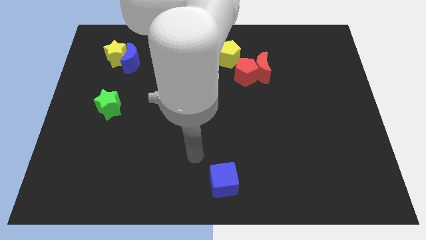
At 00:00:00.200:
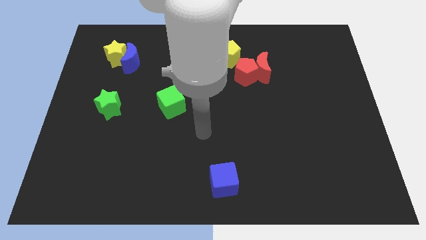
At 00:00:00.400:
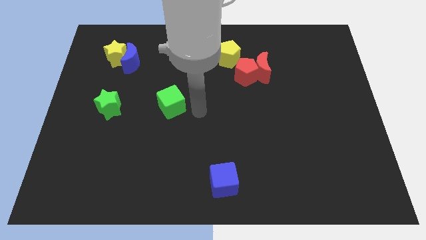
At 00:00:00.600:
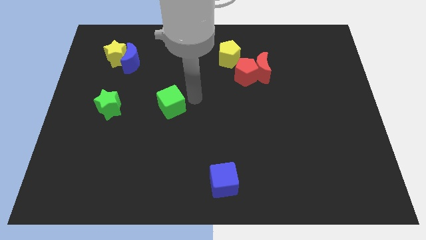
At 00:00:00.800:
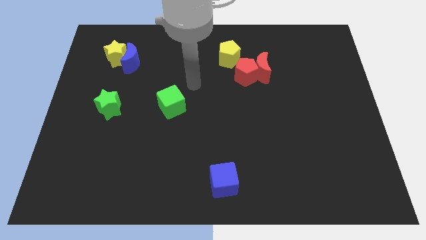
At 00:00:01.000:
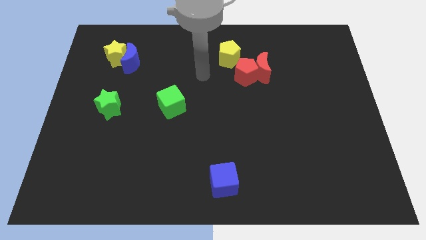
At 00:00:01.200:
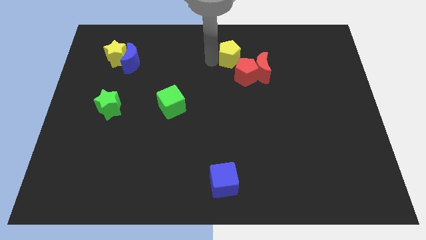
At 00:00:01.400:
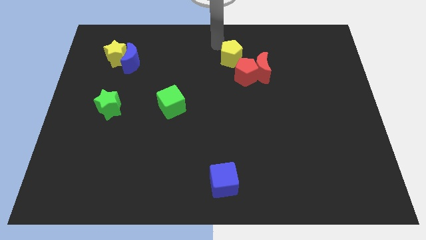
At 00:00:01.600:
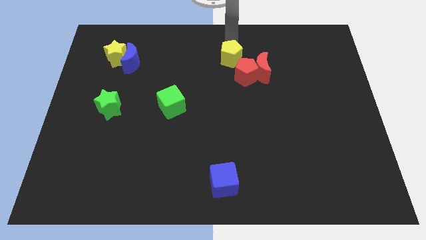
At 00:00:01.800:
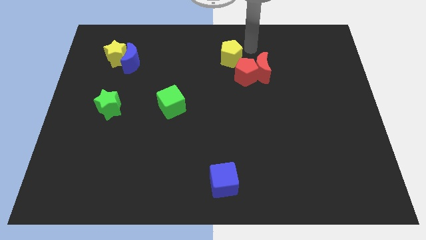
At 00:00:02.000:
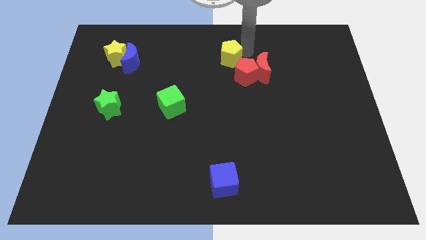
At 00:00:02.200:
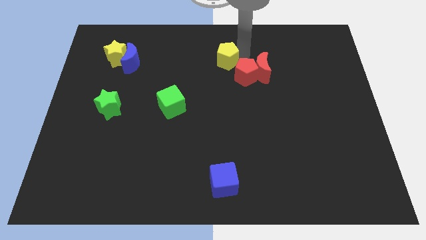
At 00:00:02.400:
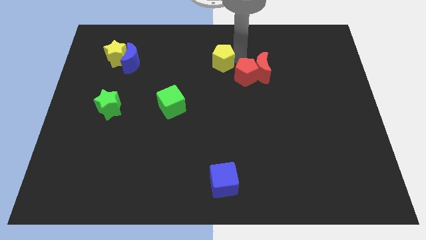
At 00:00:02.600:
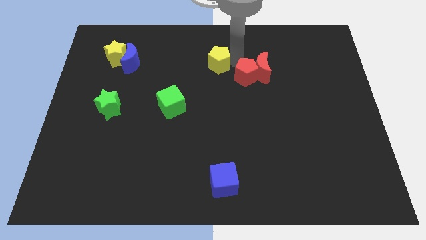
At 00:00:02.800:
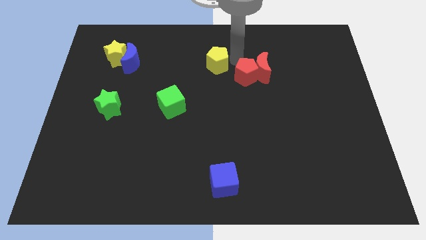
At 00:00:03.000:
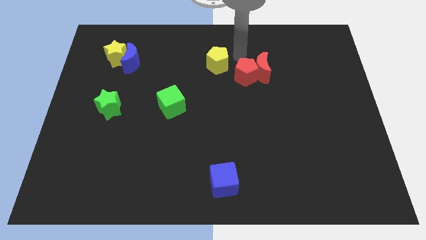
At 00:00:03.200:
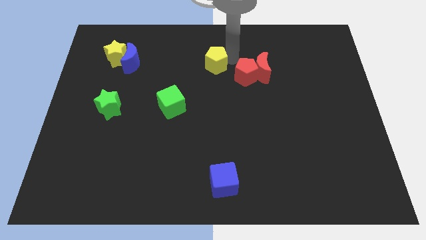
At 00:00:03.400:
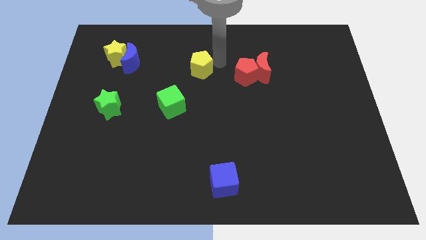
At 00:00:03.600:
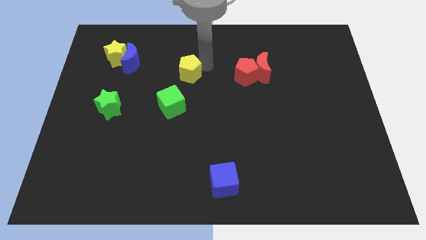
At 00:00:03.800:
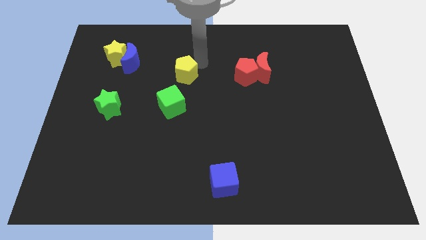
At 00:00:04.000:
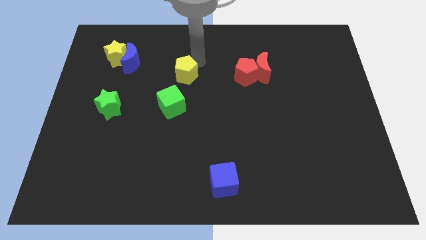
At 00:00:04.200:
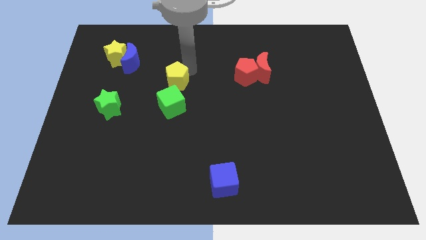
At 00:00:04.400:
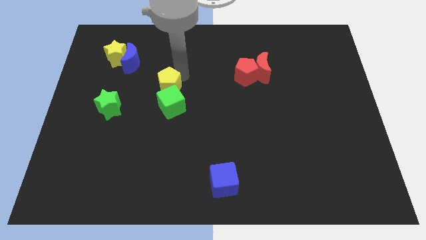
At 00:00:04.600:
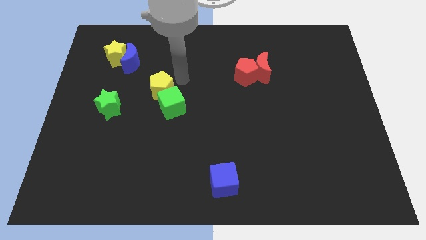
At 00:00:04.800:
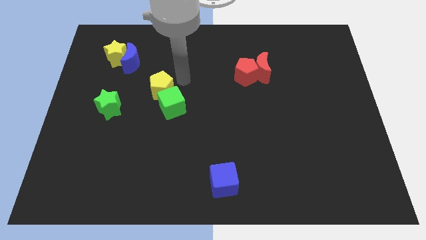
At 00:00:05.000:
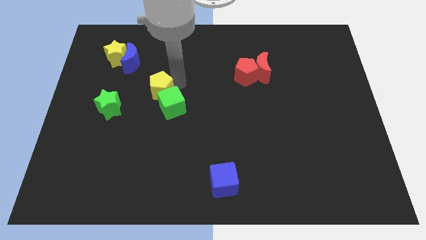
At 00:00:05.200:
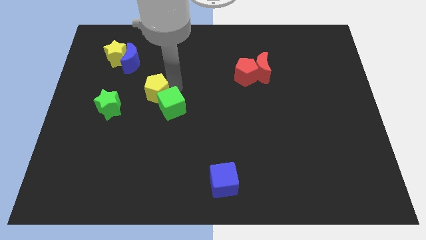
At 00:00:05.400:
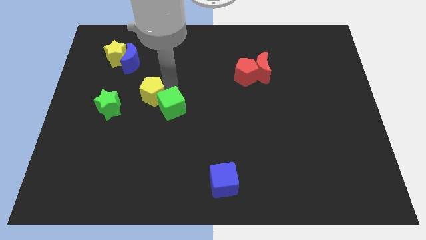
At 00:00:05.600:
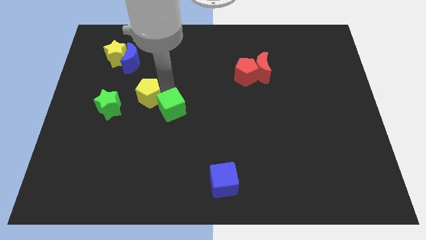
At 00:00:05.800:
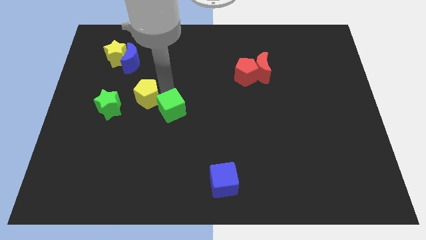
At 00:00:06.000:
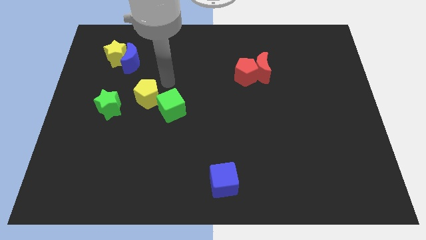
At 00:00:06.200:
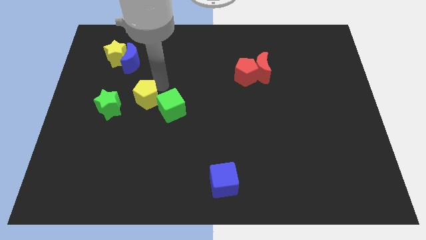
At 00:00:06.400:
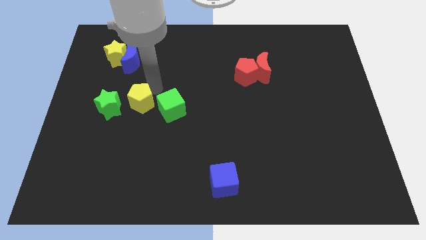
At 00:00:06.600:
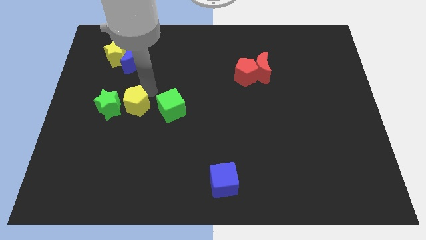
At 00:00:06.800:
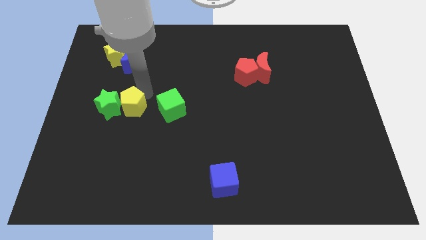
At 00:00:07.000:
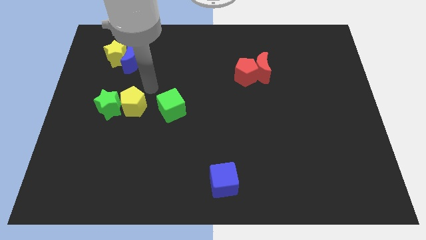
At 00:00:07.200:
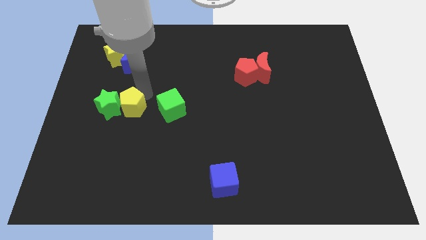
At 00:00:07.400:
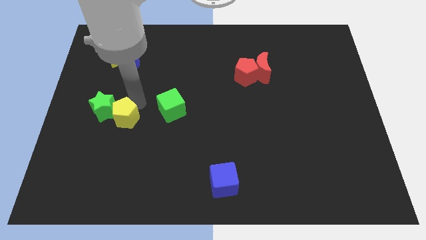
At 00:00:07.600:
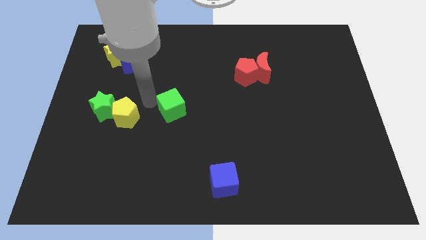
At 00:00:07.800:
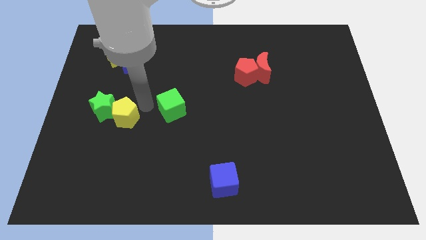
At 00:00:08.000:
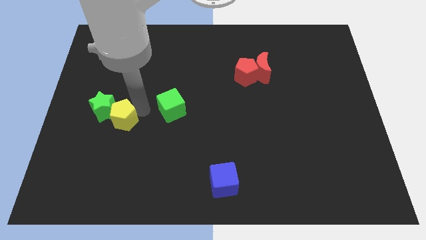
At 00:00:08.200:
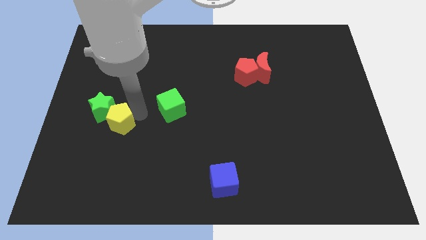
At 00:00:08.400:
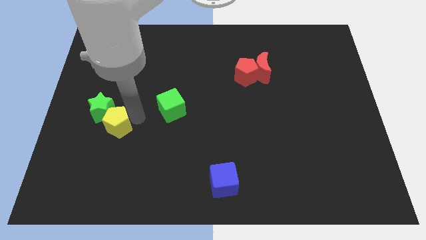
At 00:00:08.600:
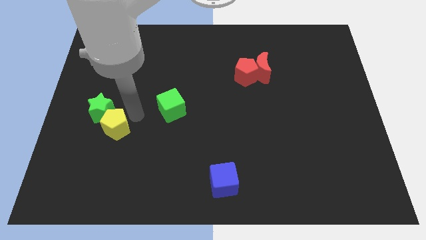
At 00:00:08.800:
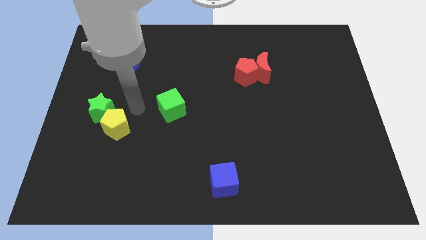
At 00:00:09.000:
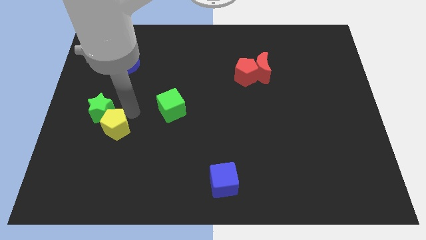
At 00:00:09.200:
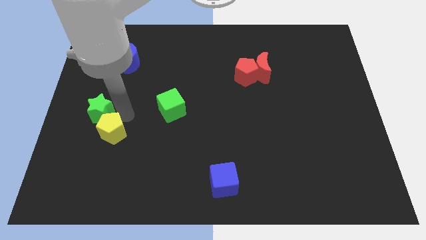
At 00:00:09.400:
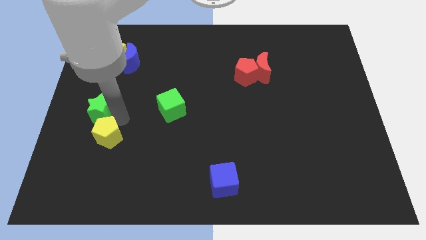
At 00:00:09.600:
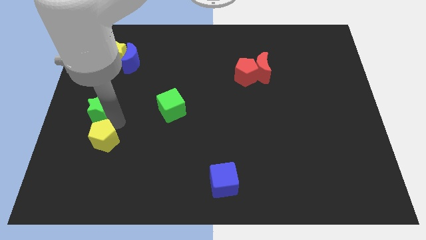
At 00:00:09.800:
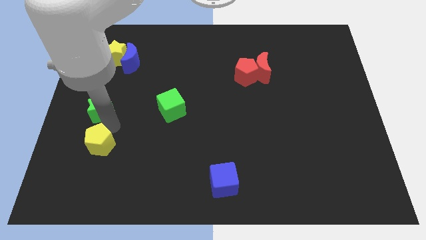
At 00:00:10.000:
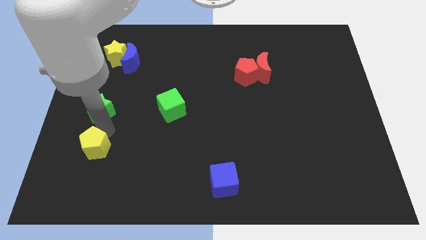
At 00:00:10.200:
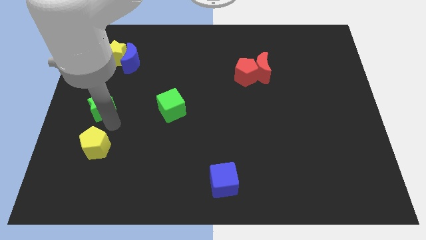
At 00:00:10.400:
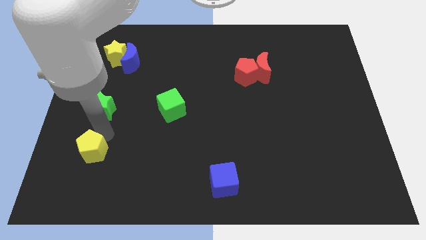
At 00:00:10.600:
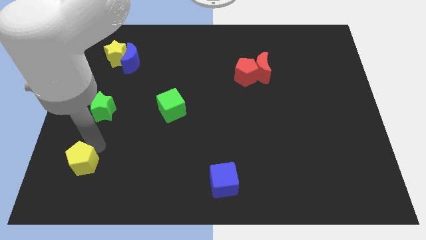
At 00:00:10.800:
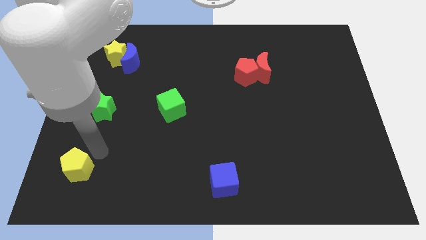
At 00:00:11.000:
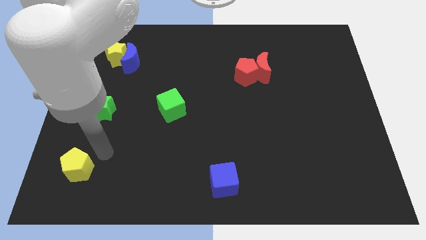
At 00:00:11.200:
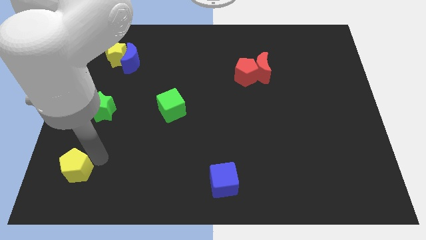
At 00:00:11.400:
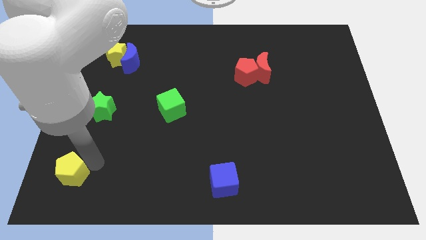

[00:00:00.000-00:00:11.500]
push the yellow pentagon to the bottom left of the board
